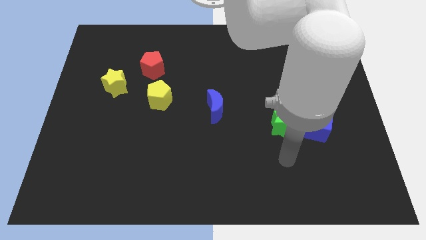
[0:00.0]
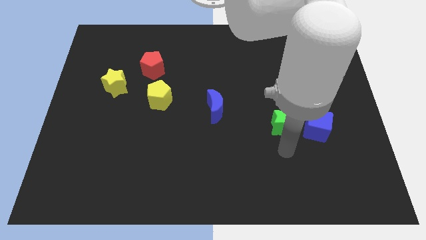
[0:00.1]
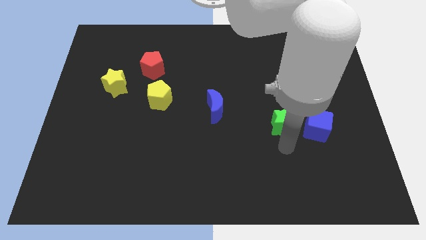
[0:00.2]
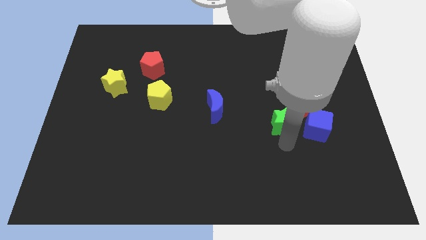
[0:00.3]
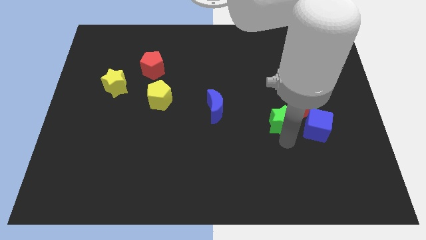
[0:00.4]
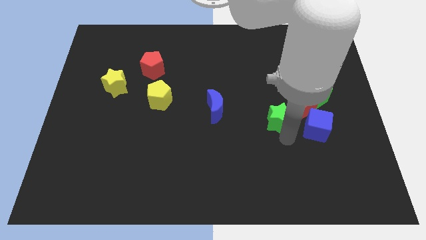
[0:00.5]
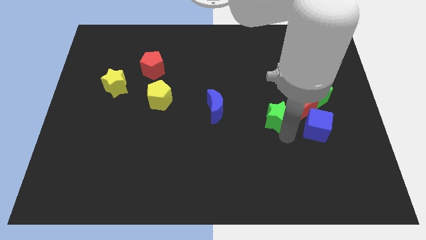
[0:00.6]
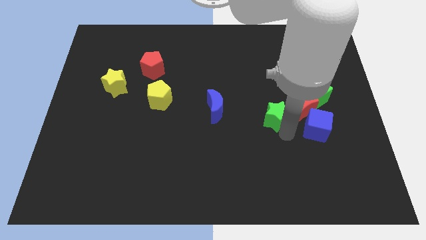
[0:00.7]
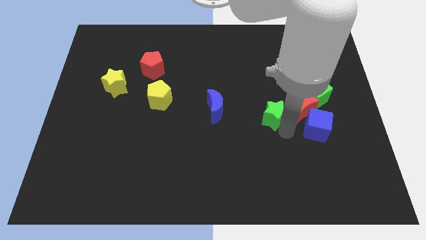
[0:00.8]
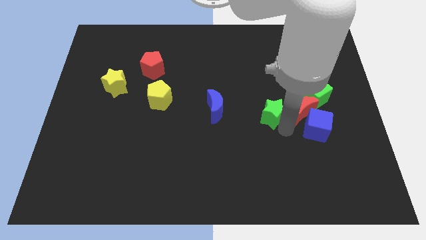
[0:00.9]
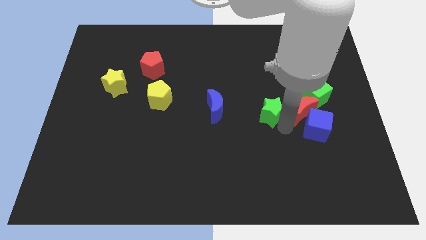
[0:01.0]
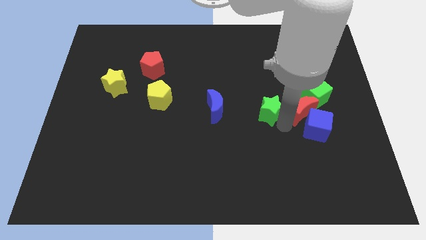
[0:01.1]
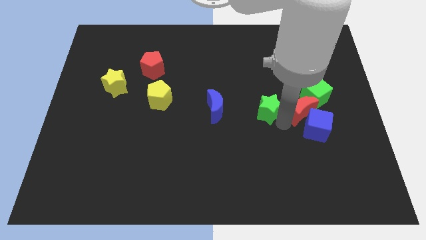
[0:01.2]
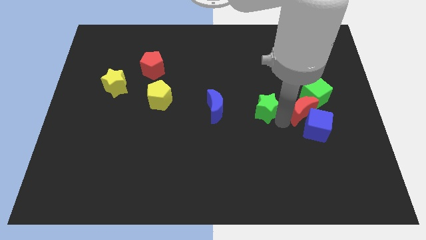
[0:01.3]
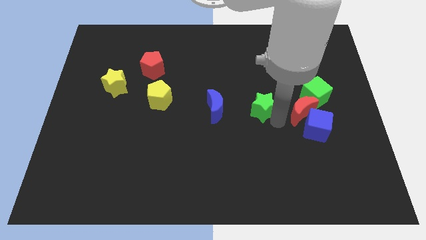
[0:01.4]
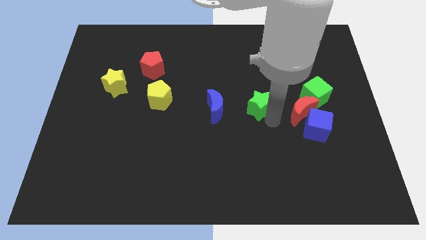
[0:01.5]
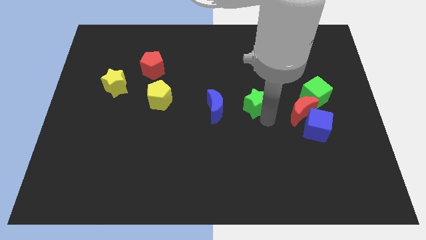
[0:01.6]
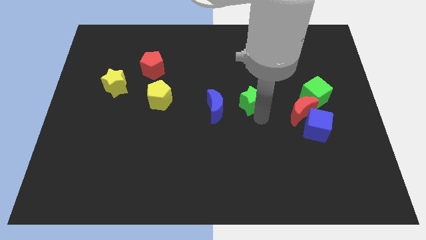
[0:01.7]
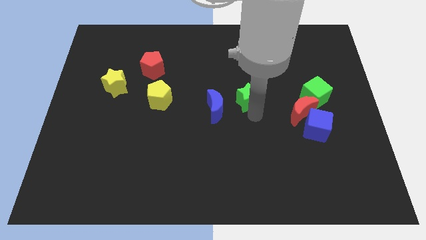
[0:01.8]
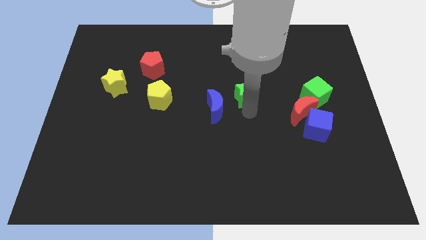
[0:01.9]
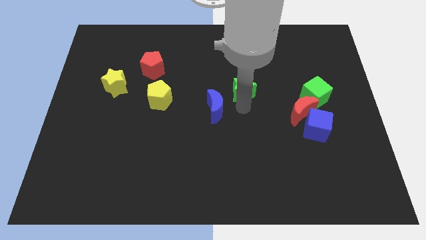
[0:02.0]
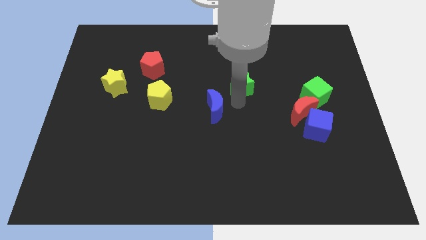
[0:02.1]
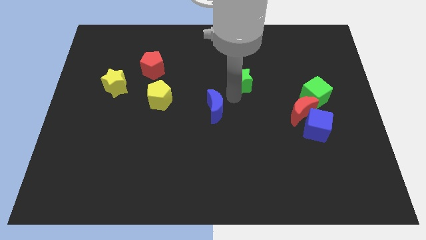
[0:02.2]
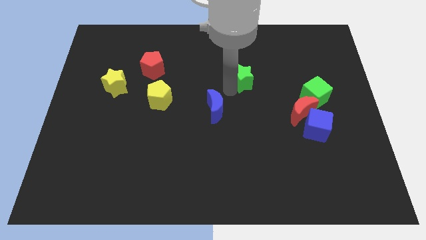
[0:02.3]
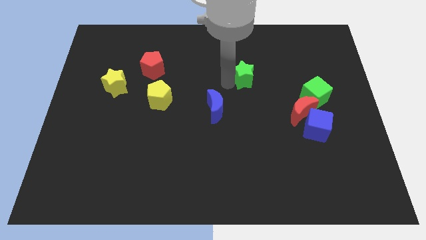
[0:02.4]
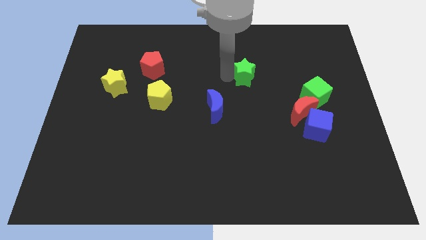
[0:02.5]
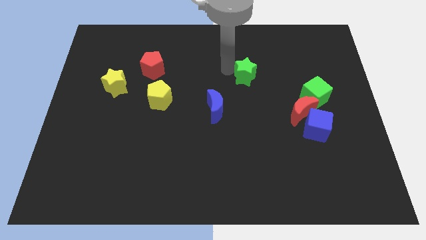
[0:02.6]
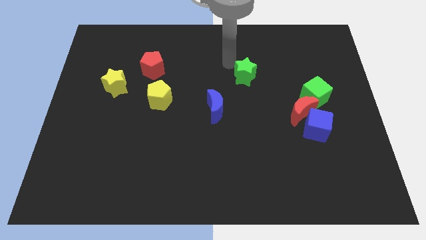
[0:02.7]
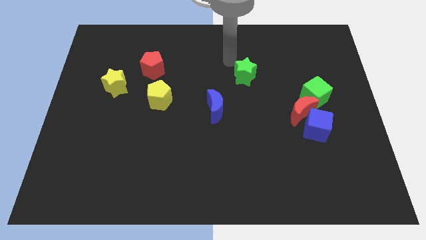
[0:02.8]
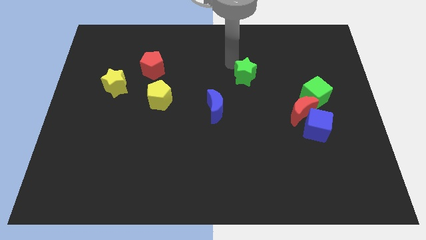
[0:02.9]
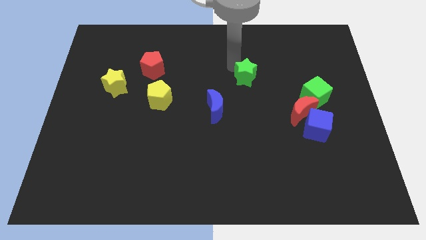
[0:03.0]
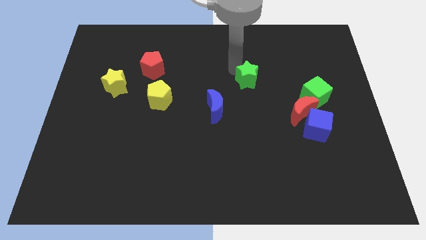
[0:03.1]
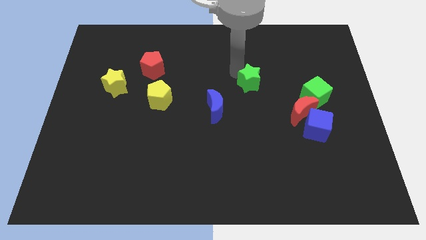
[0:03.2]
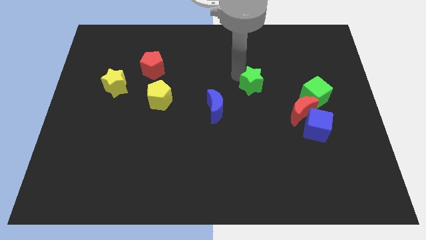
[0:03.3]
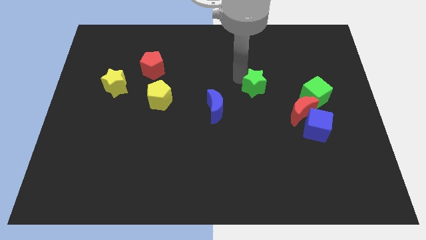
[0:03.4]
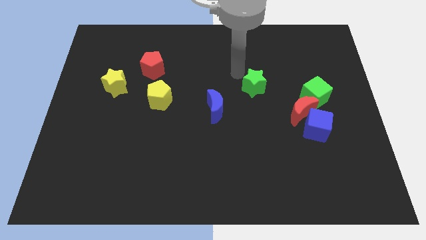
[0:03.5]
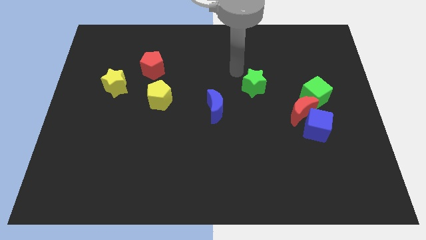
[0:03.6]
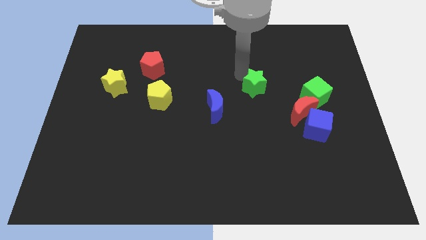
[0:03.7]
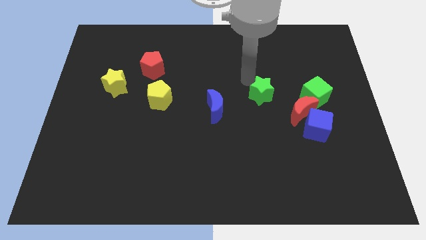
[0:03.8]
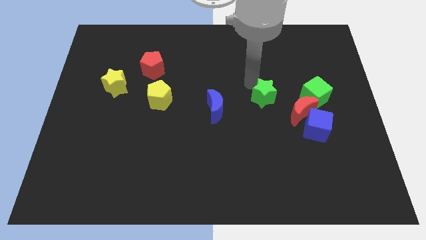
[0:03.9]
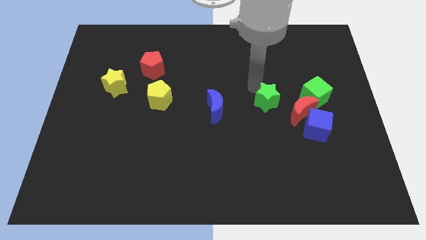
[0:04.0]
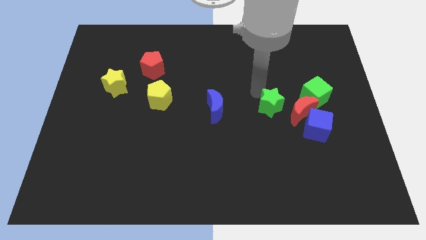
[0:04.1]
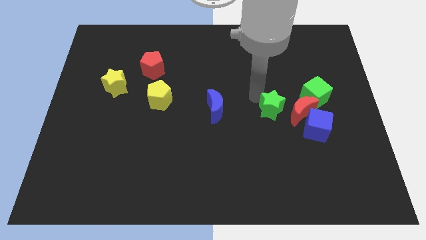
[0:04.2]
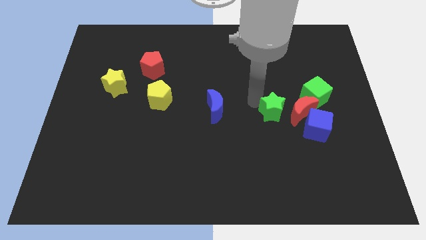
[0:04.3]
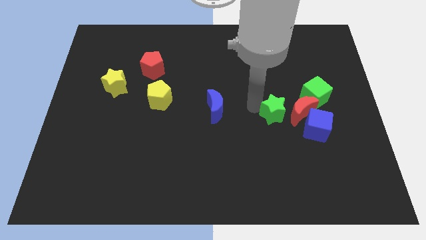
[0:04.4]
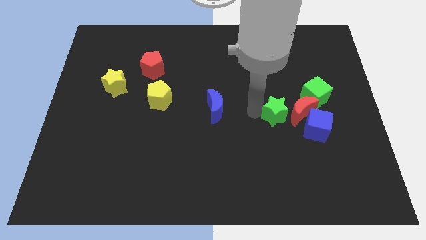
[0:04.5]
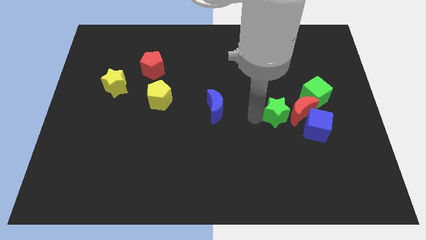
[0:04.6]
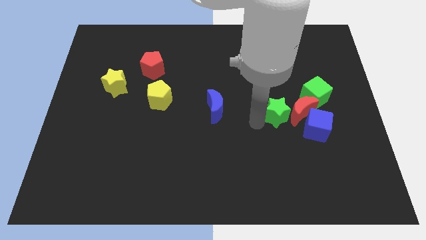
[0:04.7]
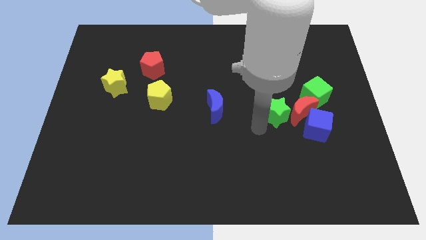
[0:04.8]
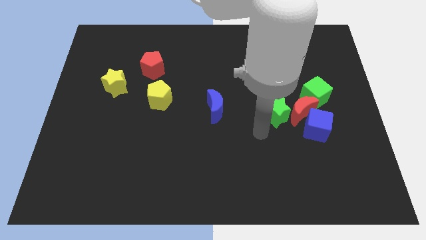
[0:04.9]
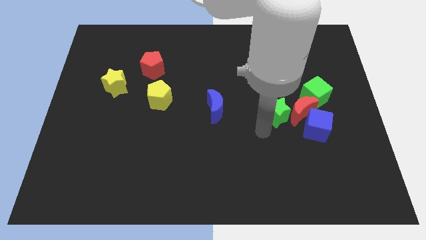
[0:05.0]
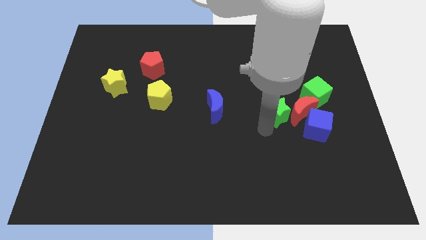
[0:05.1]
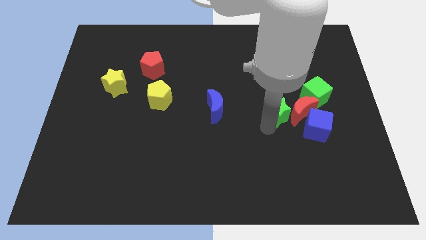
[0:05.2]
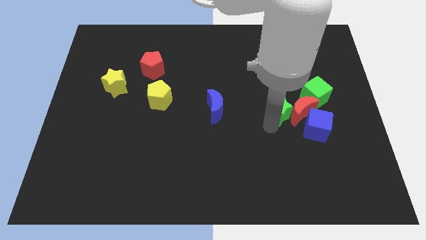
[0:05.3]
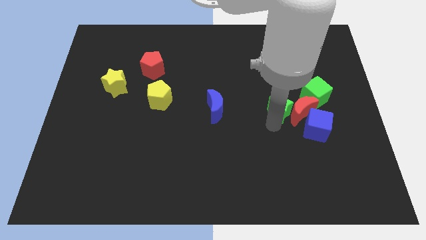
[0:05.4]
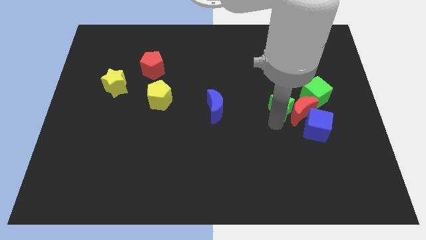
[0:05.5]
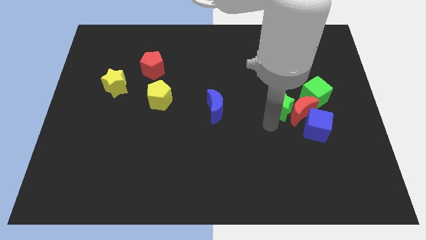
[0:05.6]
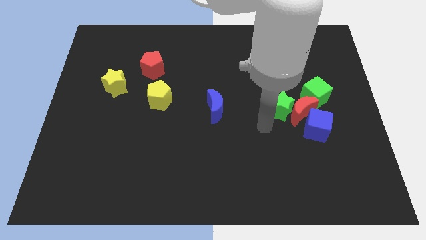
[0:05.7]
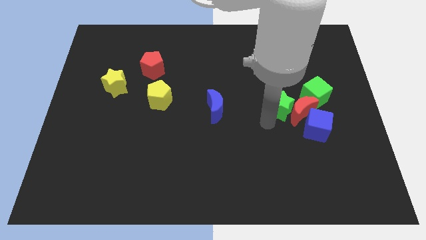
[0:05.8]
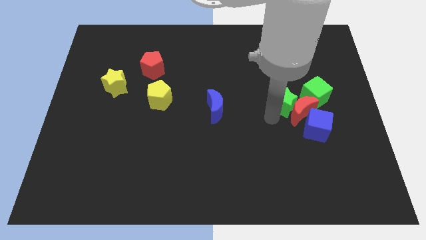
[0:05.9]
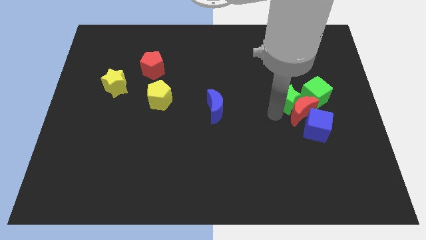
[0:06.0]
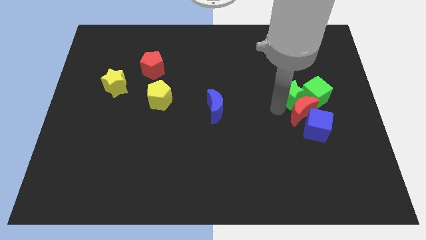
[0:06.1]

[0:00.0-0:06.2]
move the green star towards the green cube
